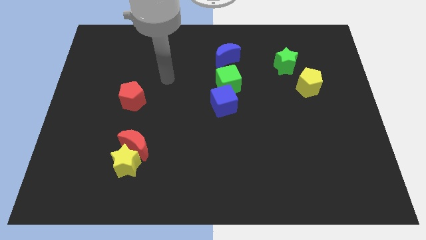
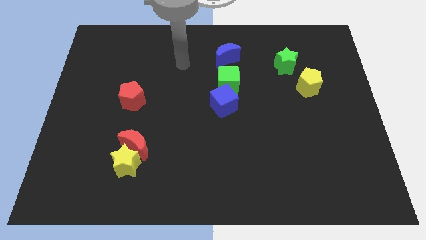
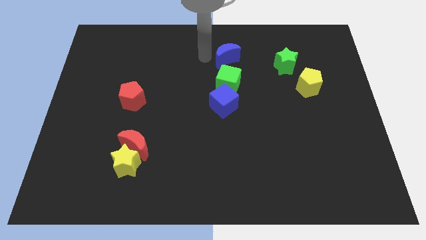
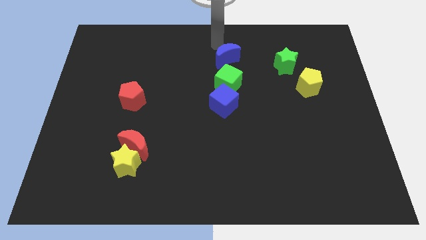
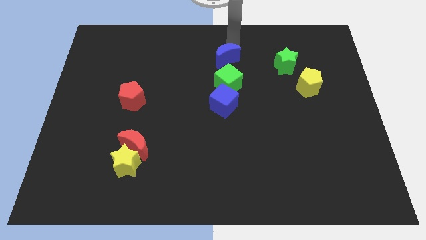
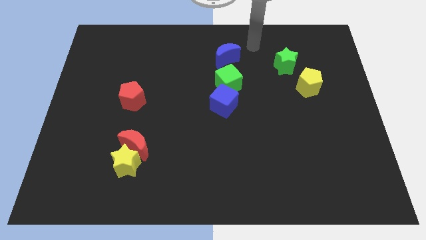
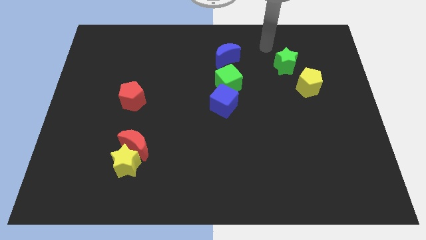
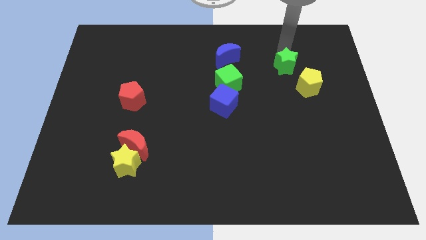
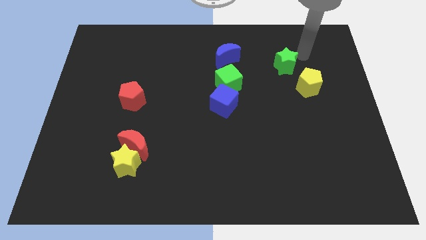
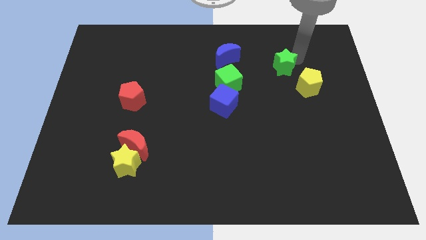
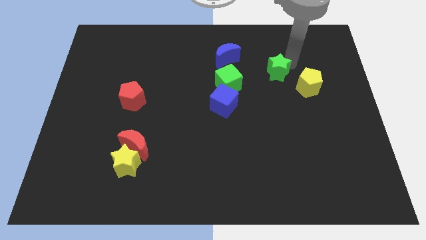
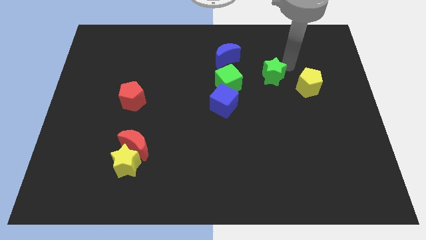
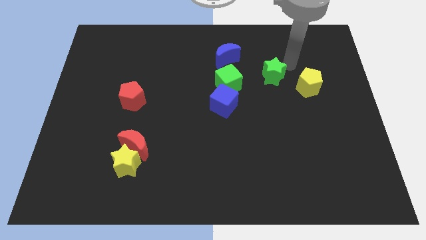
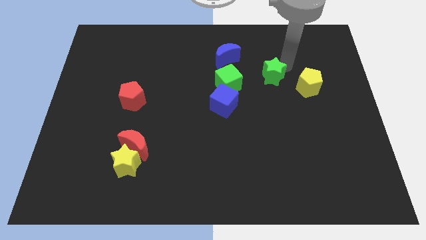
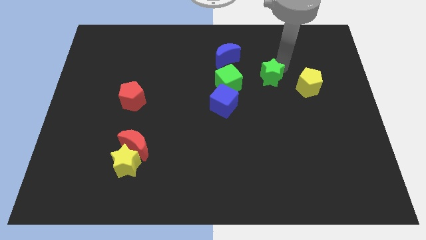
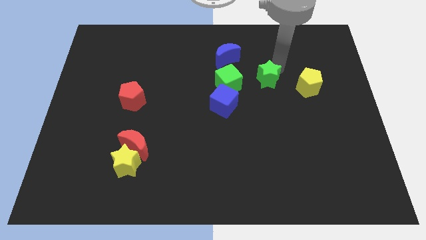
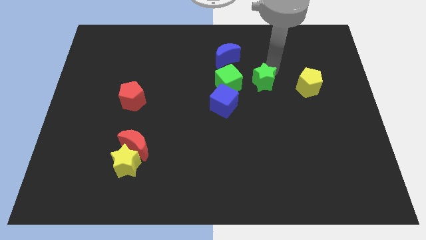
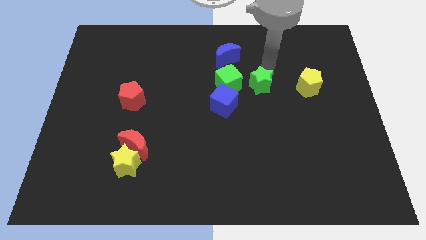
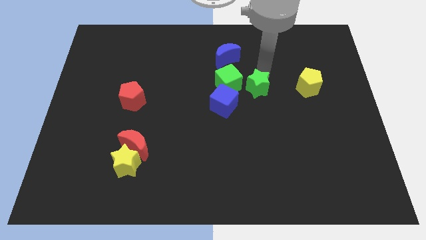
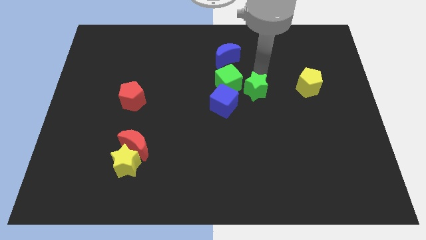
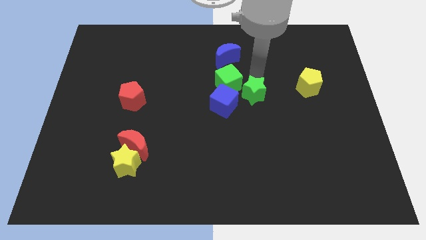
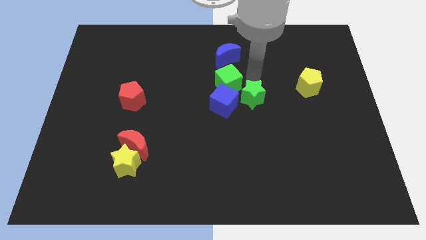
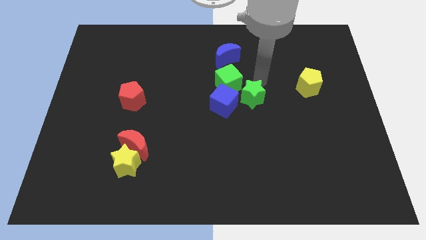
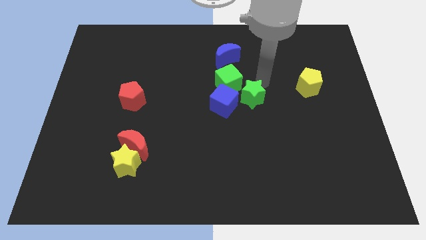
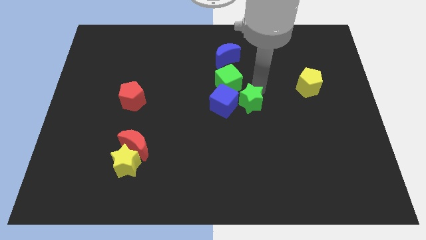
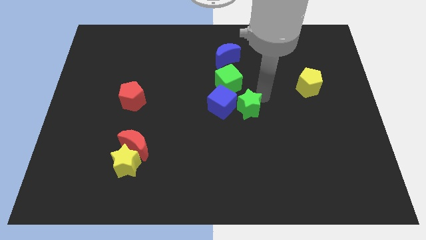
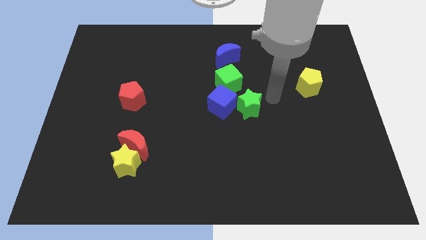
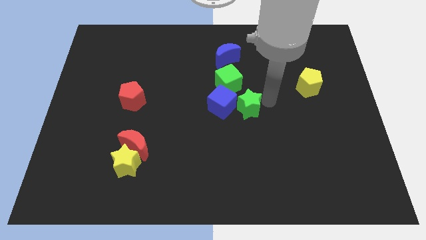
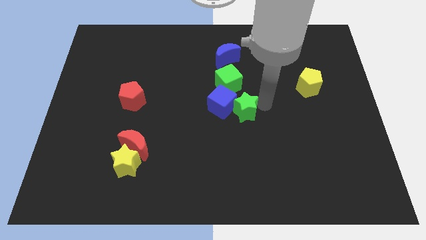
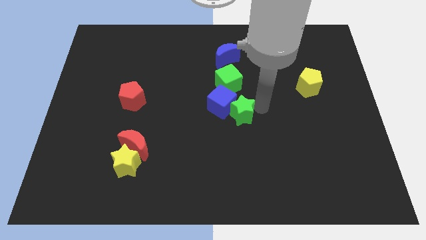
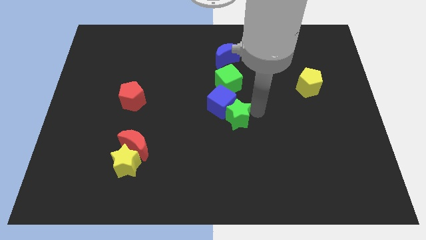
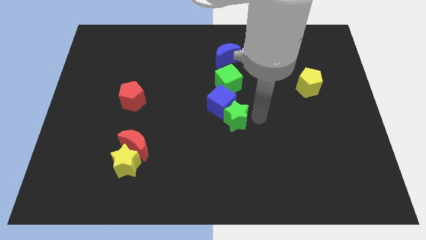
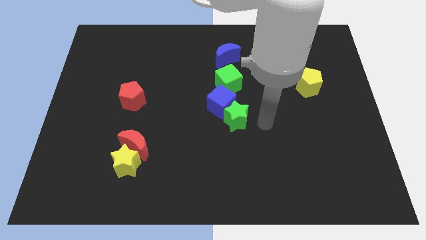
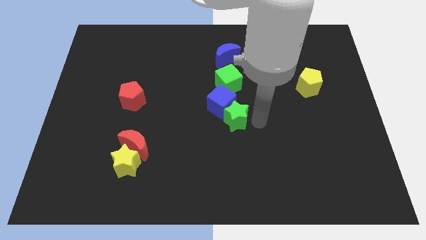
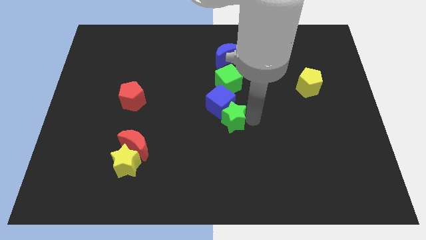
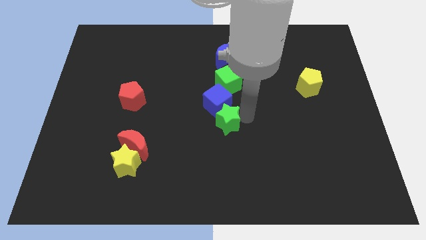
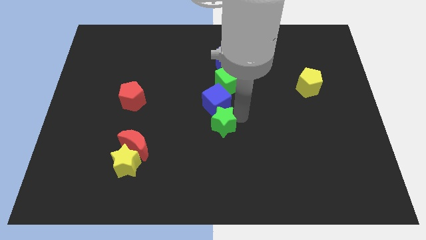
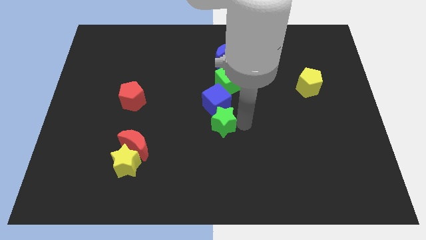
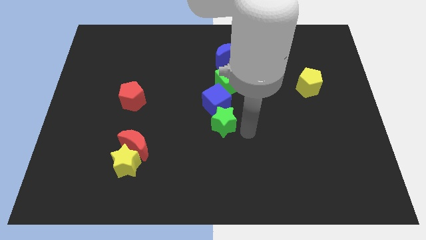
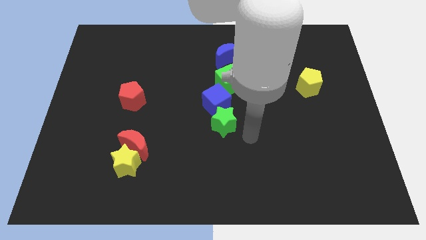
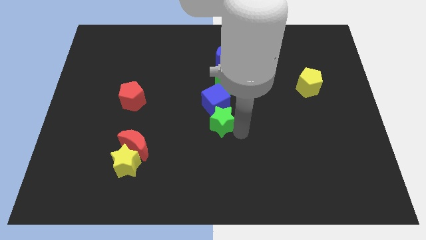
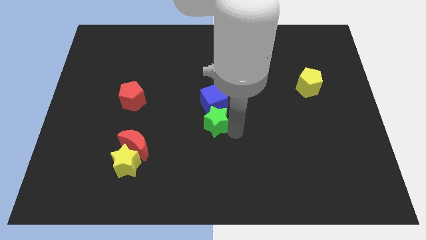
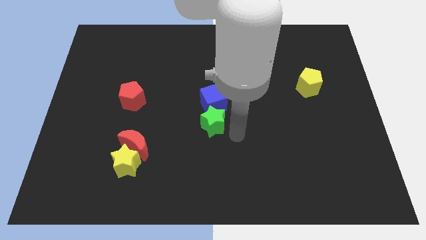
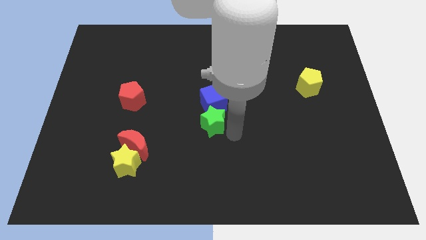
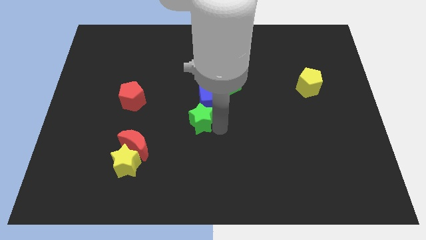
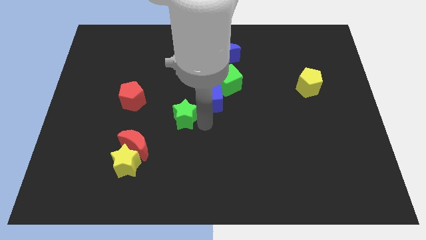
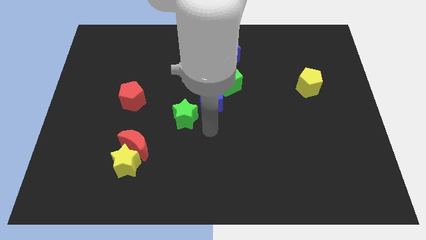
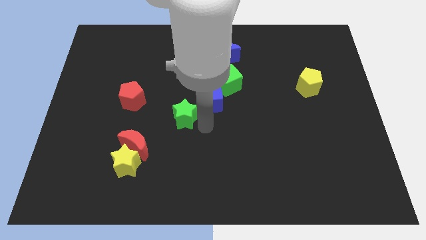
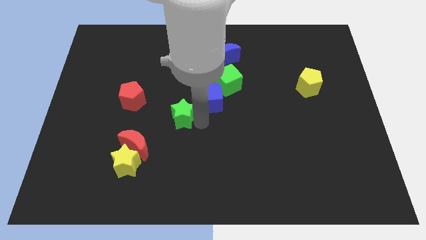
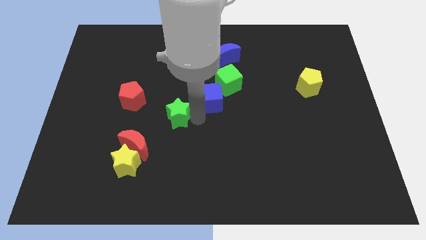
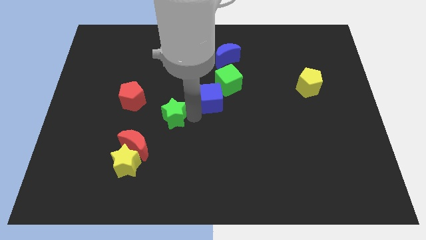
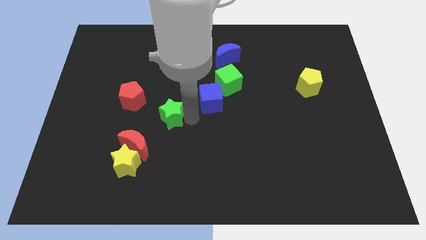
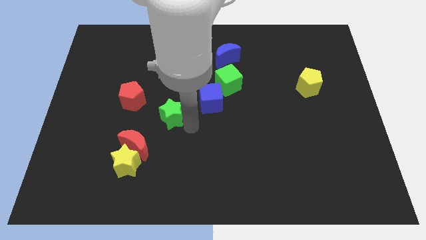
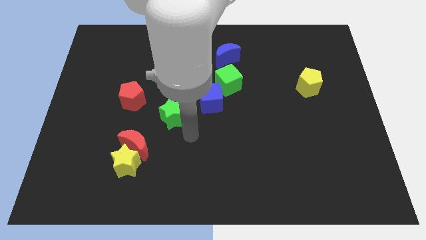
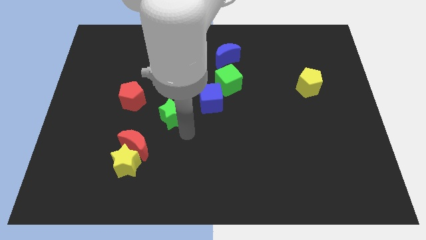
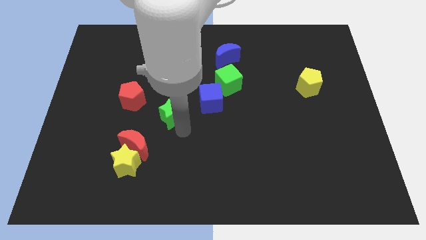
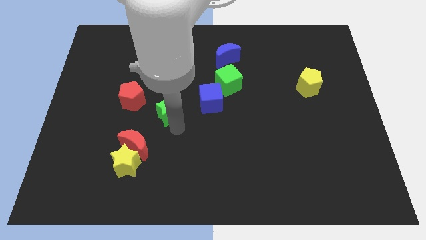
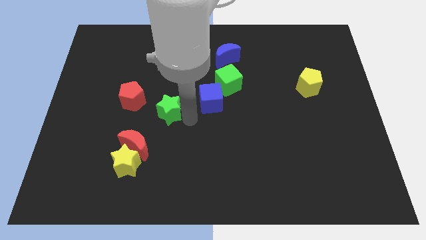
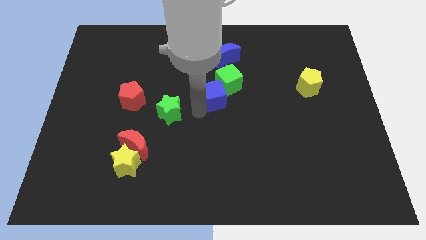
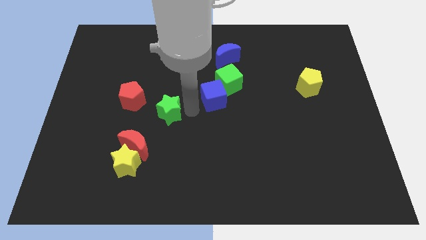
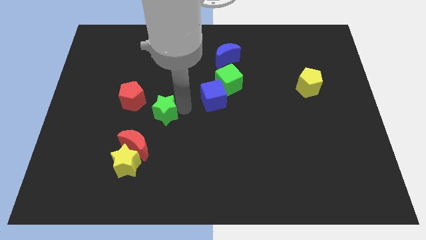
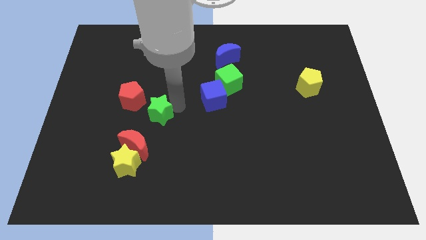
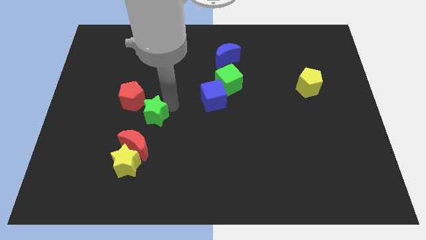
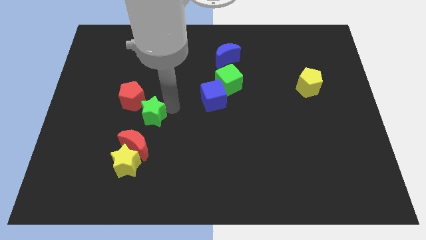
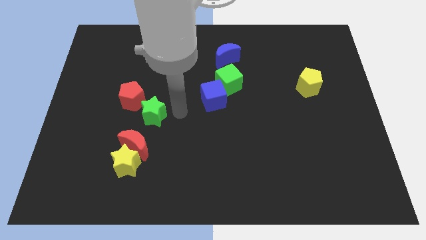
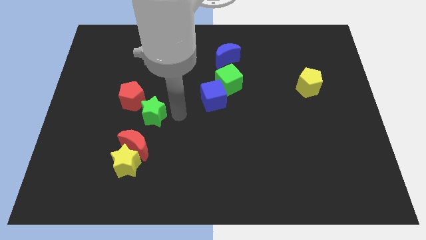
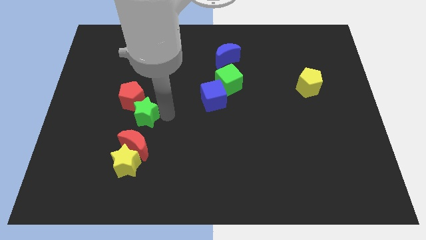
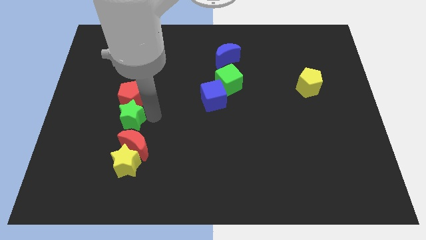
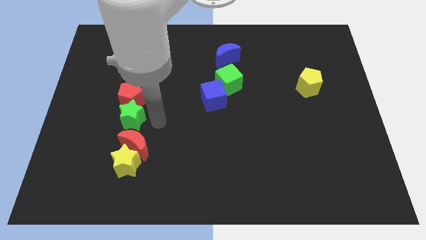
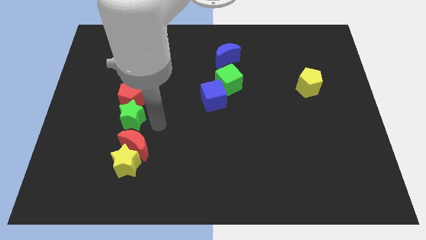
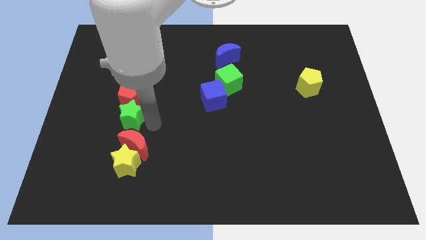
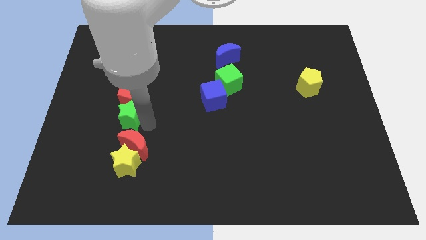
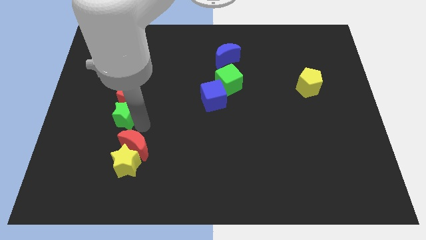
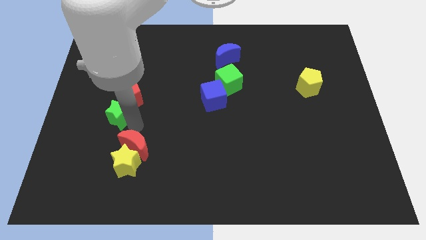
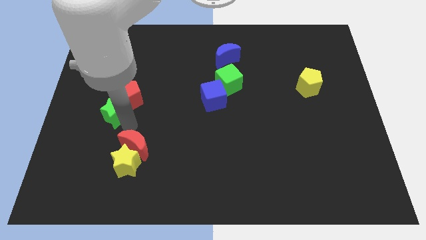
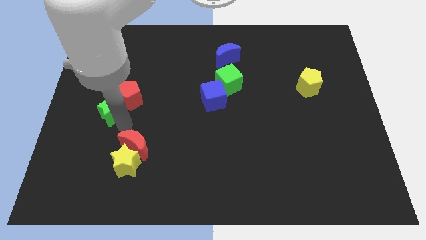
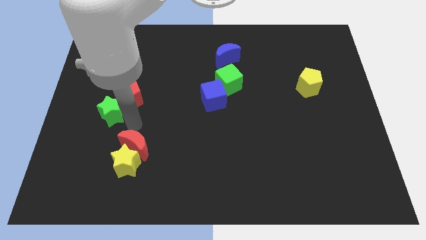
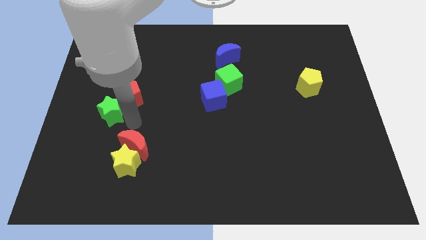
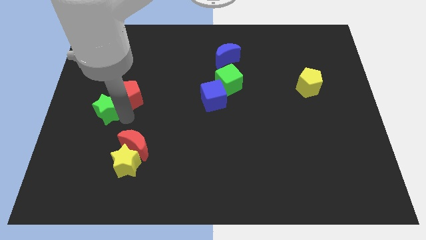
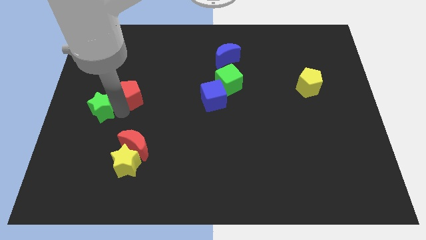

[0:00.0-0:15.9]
put the green star to the center left
